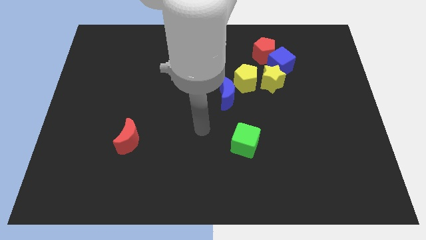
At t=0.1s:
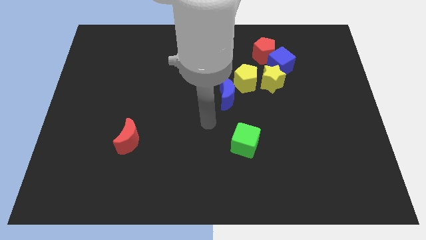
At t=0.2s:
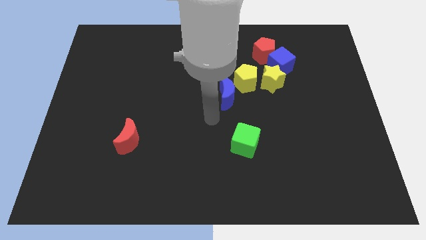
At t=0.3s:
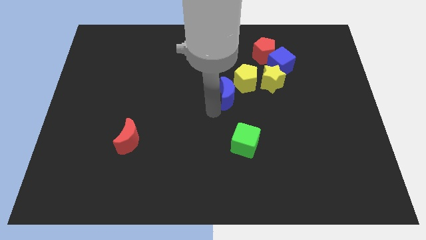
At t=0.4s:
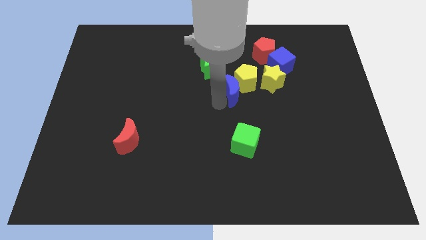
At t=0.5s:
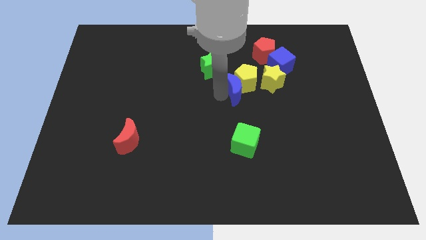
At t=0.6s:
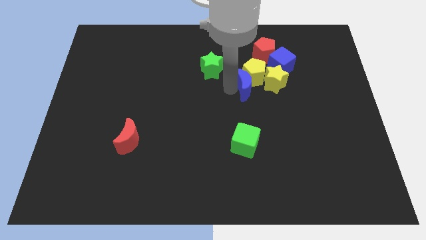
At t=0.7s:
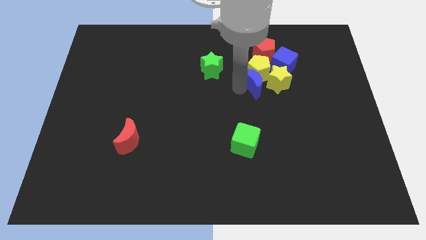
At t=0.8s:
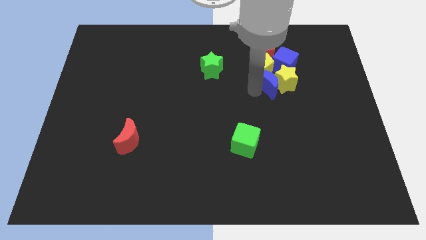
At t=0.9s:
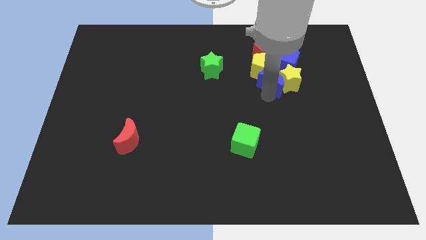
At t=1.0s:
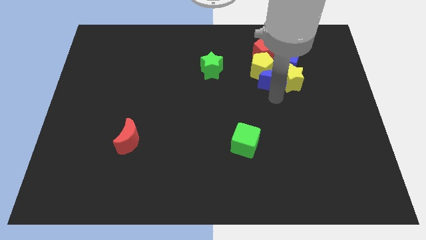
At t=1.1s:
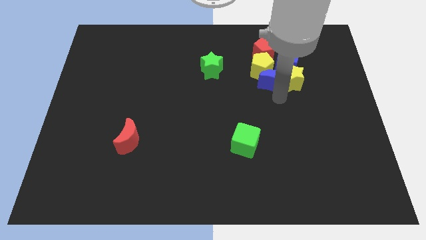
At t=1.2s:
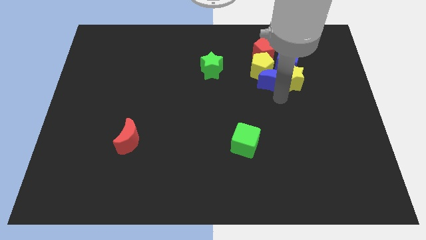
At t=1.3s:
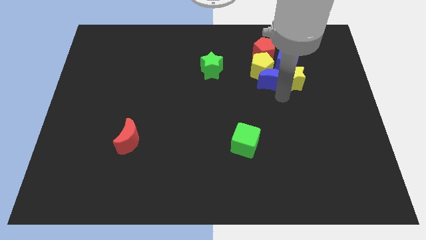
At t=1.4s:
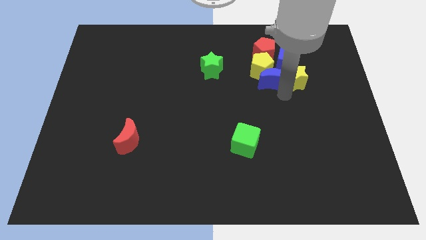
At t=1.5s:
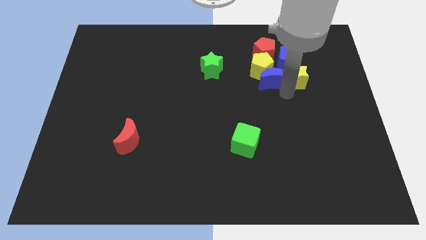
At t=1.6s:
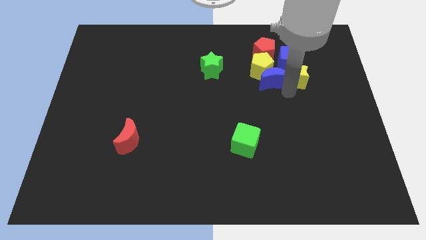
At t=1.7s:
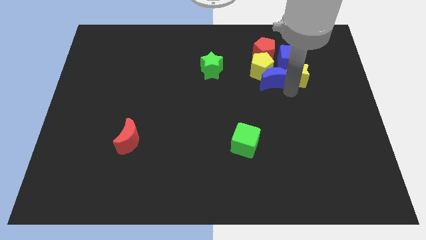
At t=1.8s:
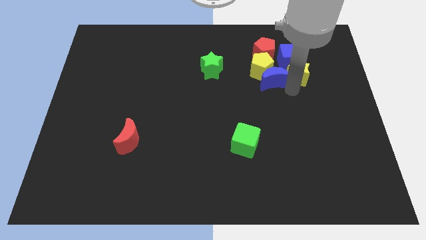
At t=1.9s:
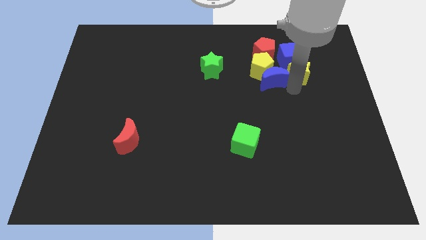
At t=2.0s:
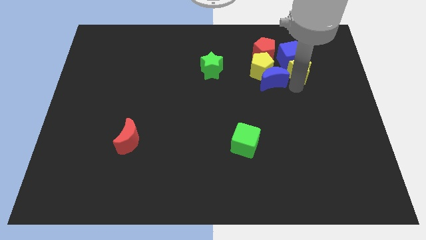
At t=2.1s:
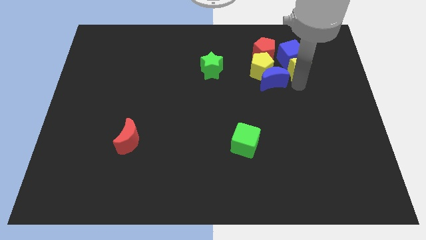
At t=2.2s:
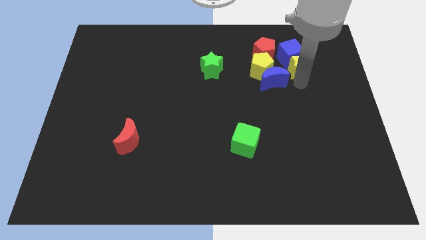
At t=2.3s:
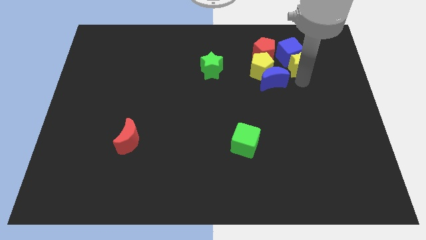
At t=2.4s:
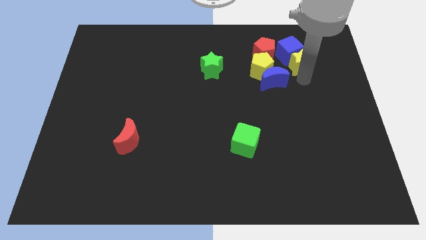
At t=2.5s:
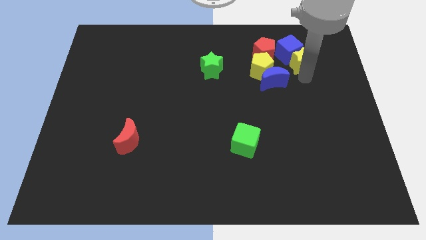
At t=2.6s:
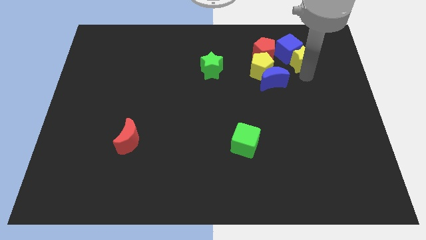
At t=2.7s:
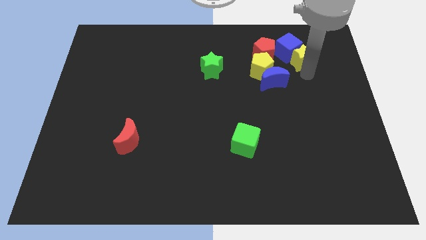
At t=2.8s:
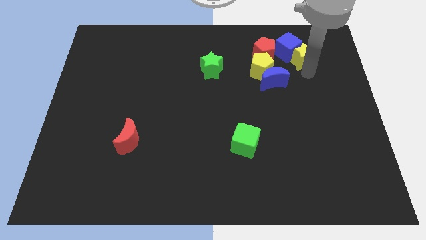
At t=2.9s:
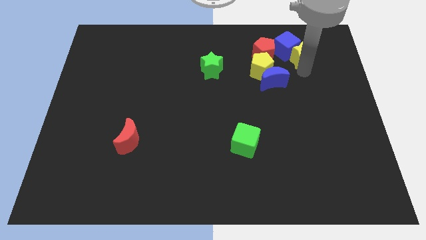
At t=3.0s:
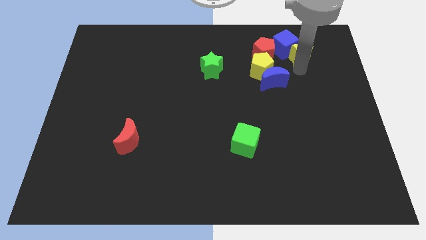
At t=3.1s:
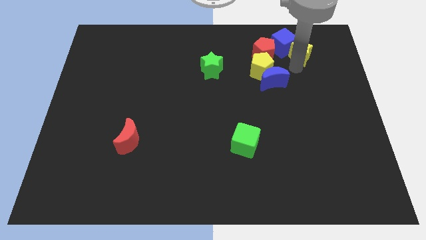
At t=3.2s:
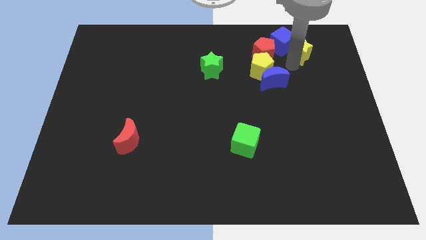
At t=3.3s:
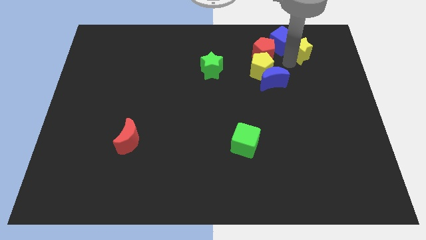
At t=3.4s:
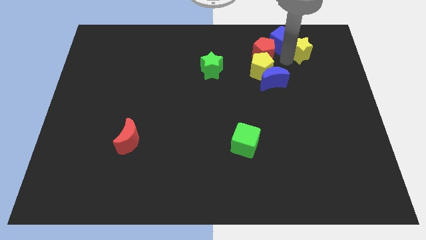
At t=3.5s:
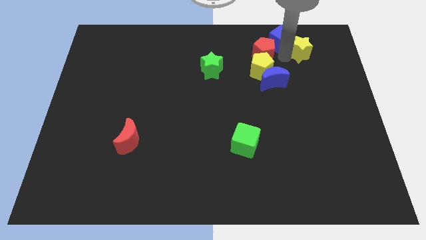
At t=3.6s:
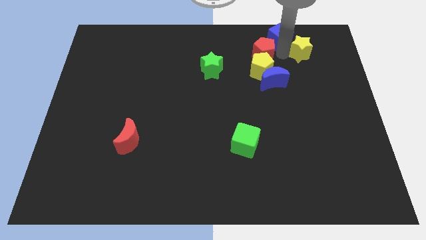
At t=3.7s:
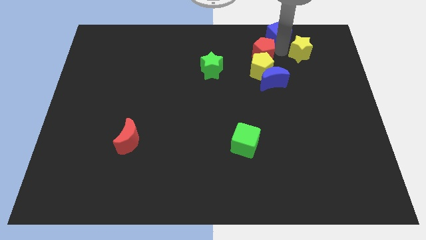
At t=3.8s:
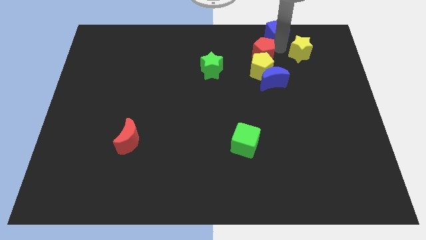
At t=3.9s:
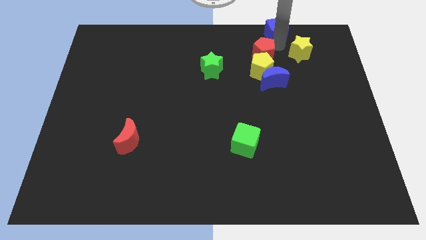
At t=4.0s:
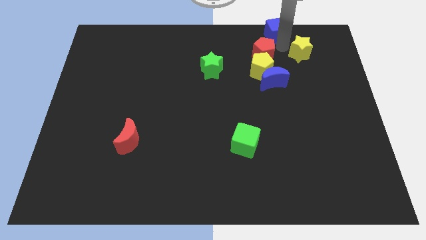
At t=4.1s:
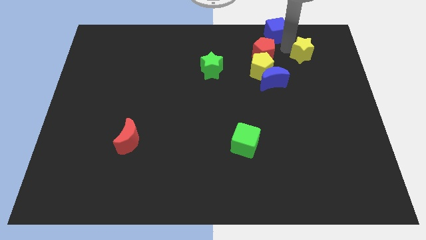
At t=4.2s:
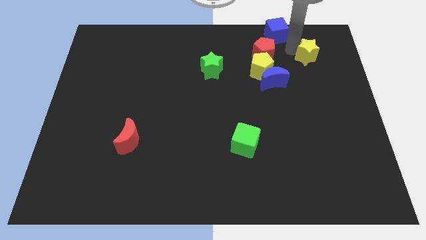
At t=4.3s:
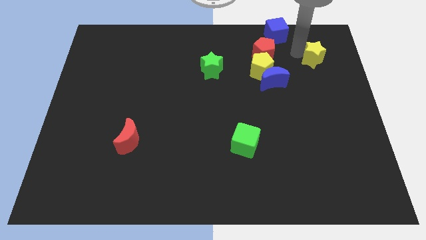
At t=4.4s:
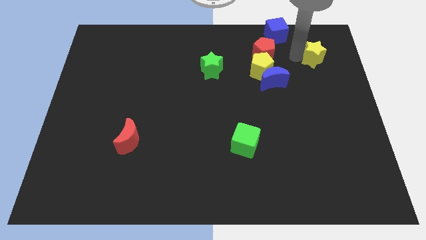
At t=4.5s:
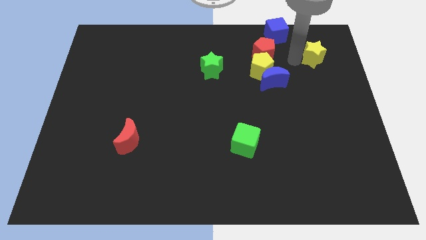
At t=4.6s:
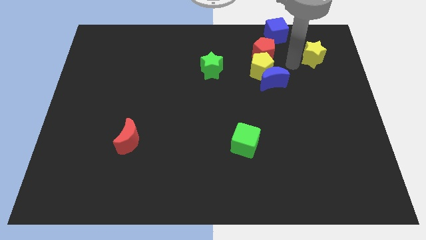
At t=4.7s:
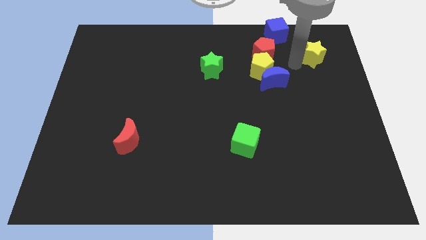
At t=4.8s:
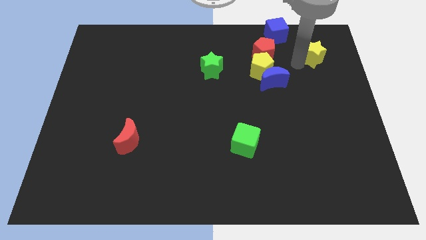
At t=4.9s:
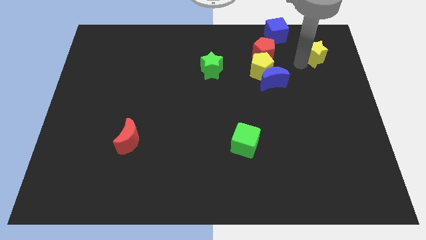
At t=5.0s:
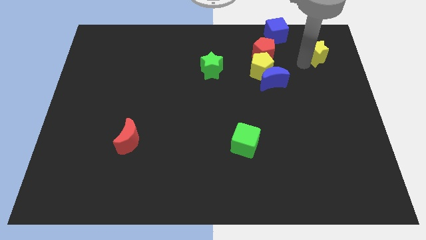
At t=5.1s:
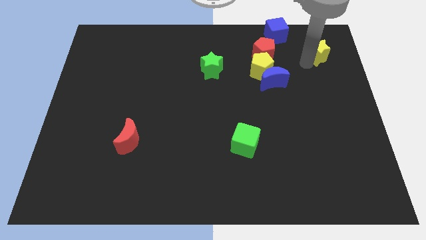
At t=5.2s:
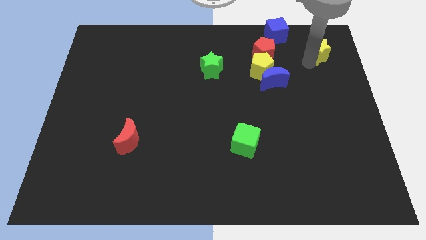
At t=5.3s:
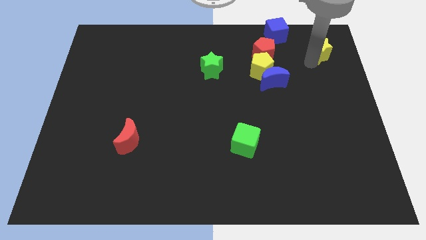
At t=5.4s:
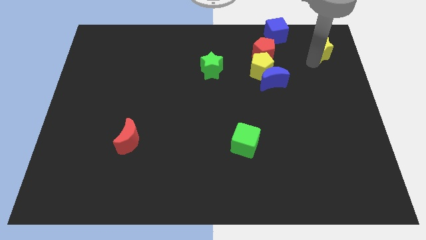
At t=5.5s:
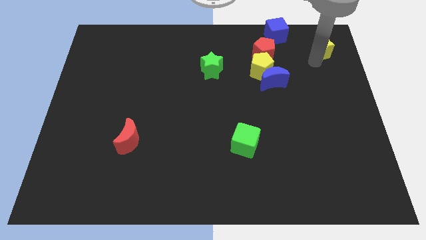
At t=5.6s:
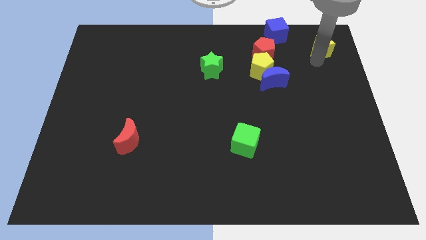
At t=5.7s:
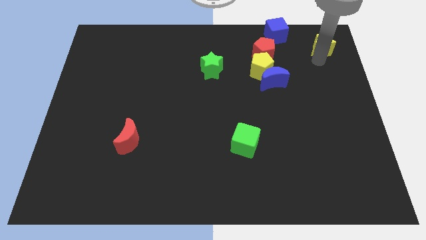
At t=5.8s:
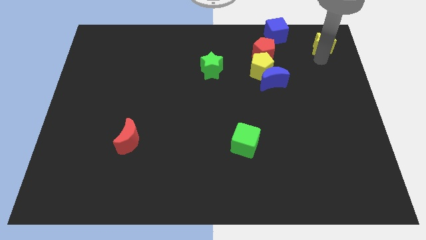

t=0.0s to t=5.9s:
move the yellow star to the top right of the board

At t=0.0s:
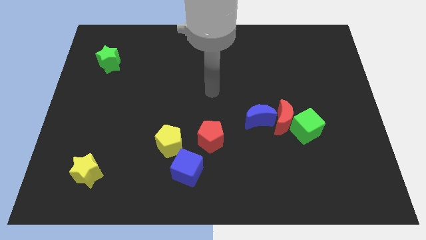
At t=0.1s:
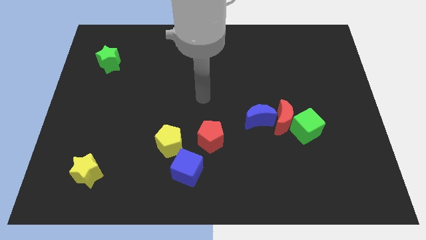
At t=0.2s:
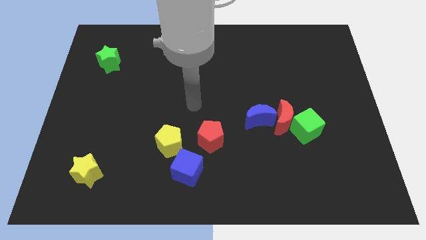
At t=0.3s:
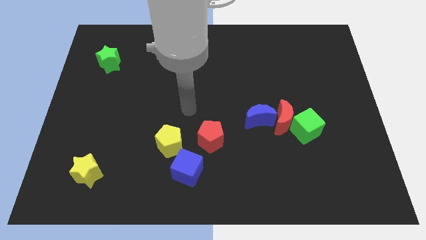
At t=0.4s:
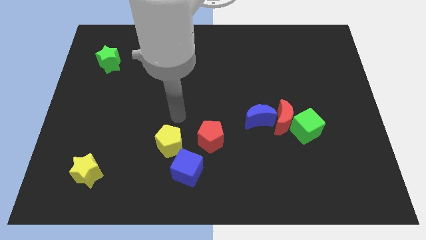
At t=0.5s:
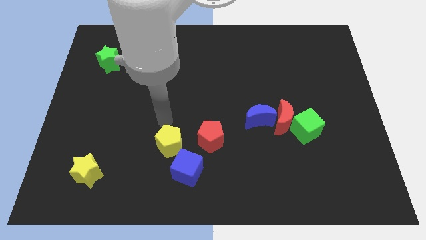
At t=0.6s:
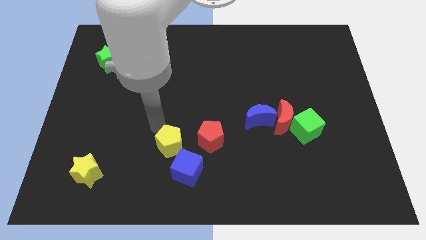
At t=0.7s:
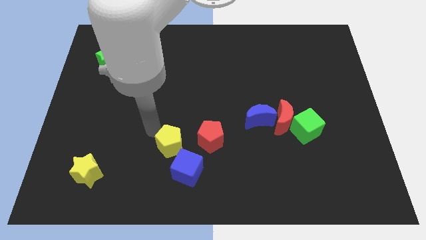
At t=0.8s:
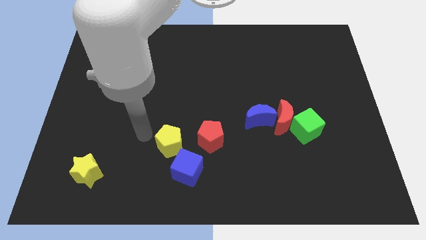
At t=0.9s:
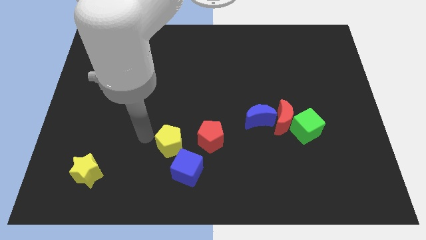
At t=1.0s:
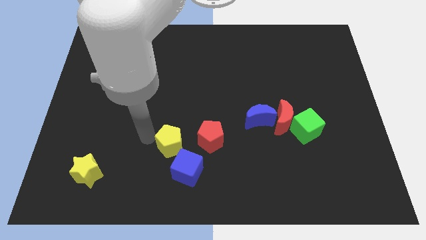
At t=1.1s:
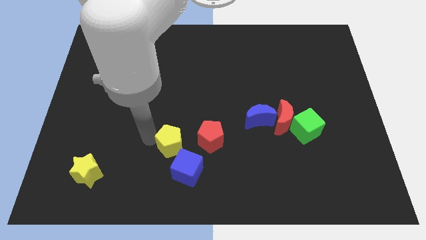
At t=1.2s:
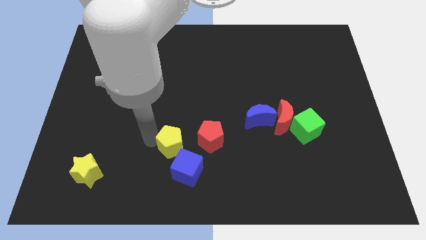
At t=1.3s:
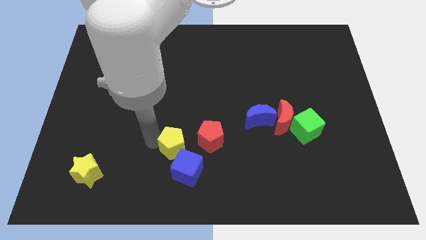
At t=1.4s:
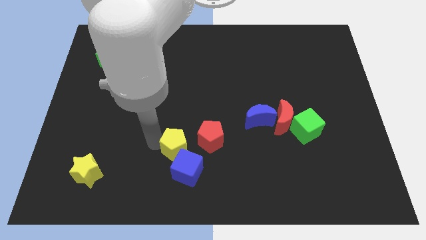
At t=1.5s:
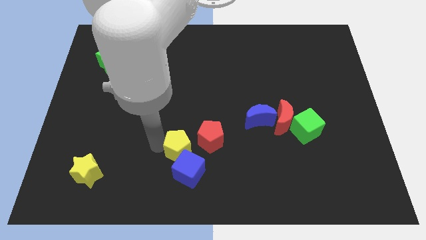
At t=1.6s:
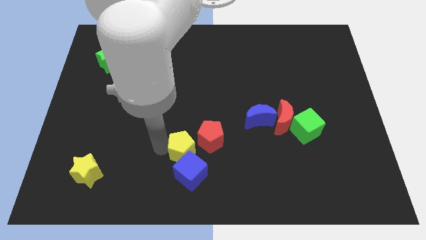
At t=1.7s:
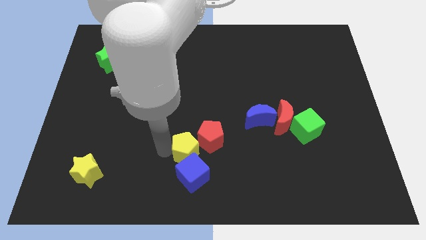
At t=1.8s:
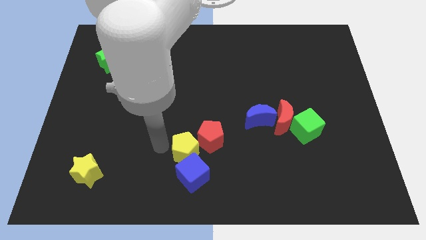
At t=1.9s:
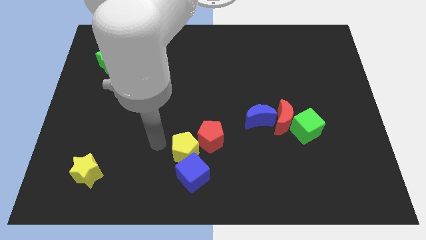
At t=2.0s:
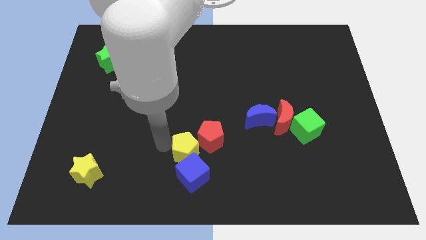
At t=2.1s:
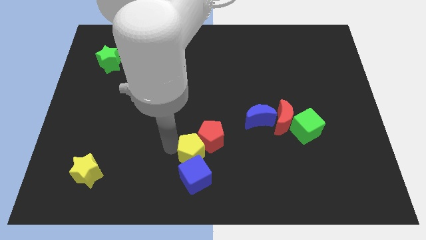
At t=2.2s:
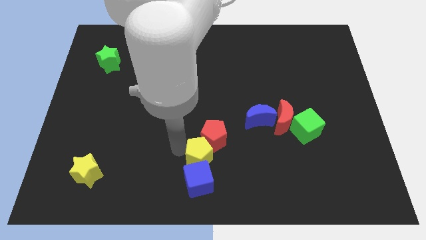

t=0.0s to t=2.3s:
slide the yellow pentagon to the bottom
